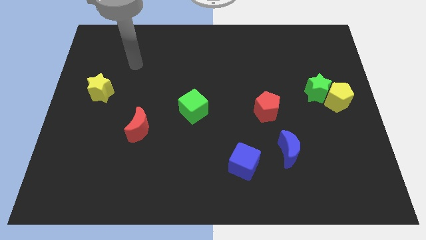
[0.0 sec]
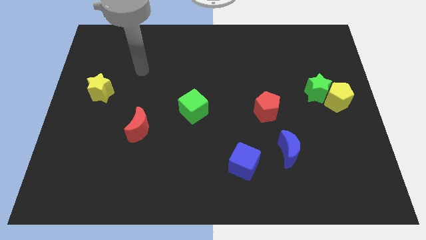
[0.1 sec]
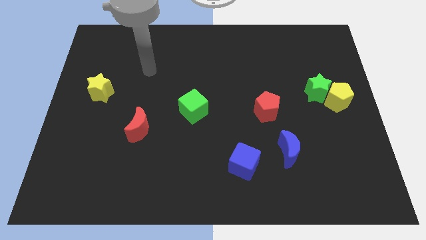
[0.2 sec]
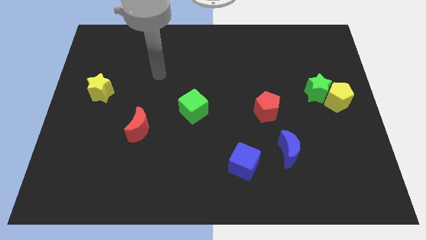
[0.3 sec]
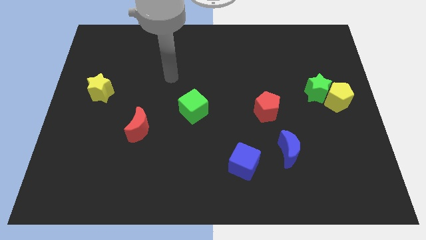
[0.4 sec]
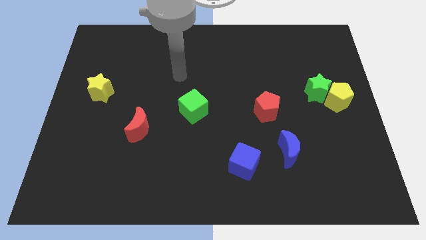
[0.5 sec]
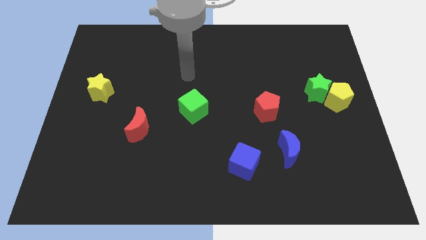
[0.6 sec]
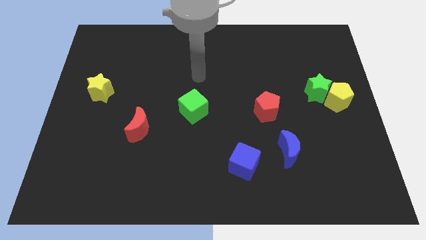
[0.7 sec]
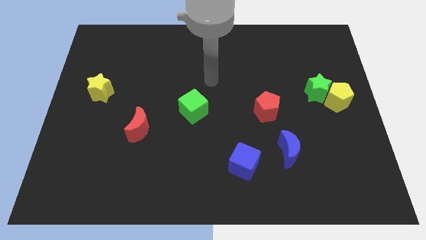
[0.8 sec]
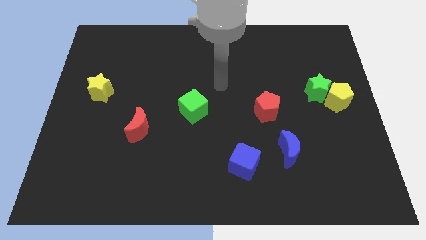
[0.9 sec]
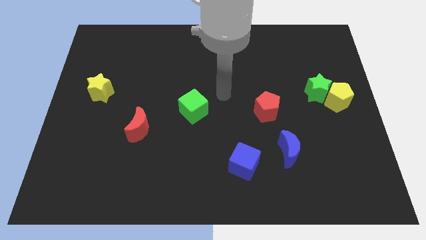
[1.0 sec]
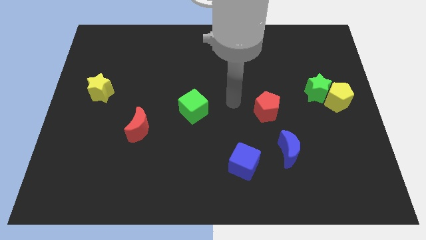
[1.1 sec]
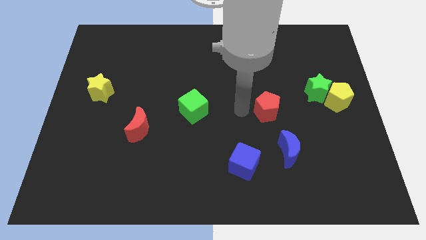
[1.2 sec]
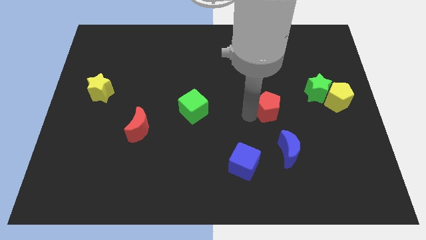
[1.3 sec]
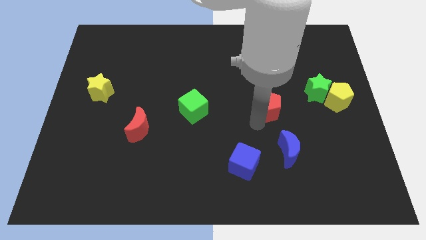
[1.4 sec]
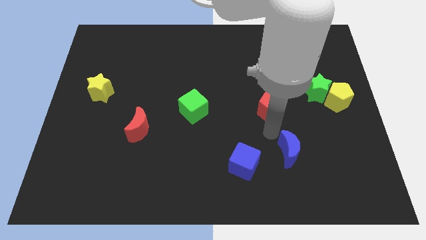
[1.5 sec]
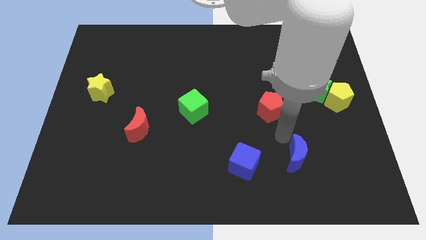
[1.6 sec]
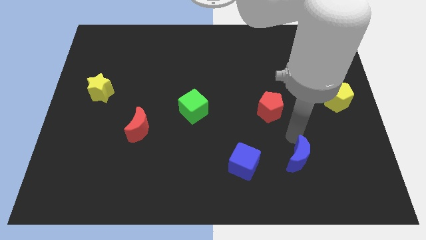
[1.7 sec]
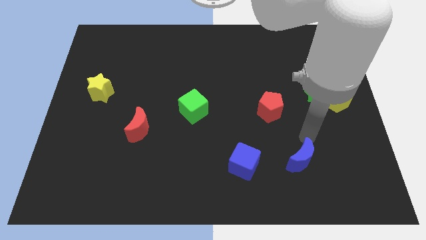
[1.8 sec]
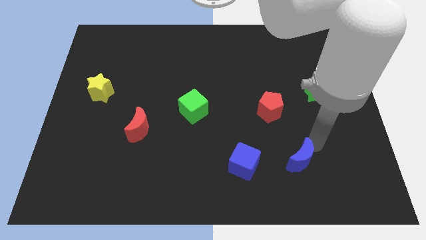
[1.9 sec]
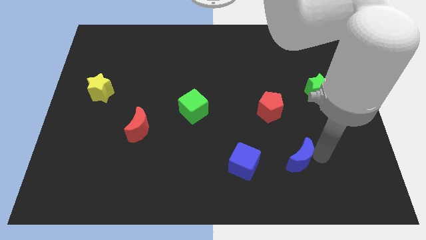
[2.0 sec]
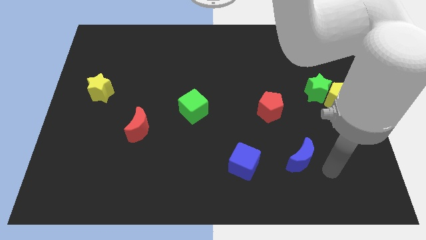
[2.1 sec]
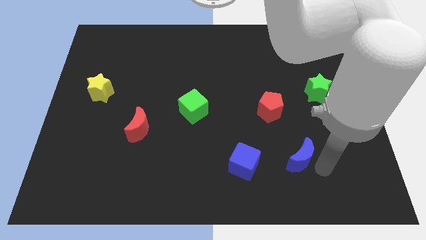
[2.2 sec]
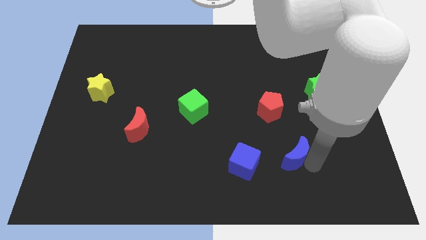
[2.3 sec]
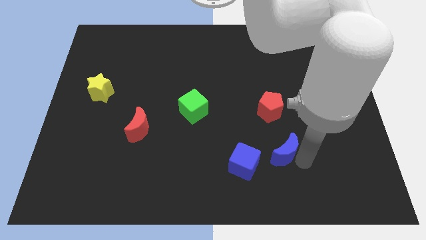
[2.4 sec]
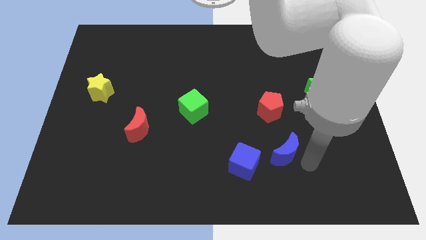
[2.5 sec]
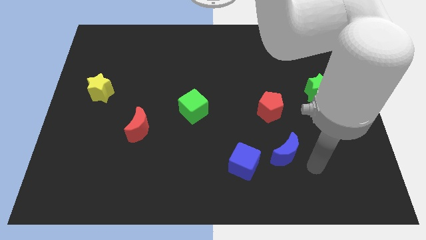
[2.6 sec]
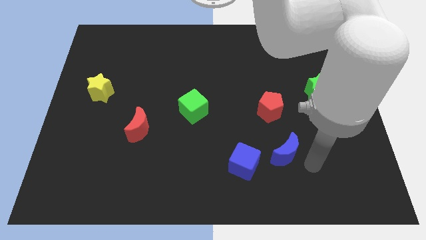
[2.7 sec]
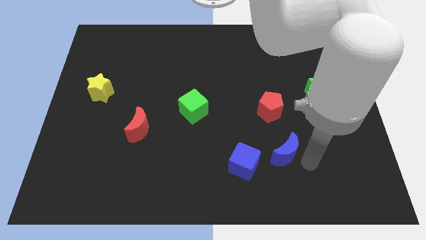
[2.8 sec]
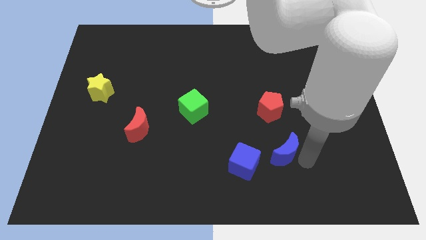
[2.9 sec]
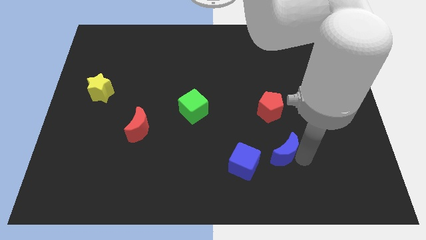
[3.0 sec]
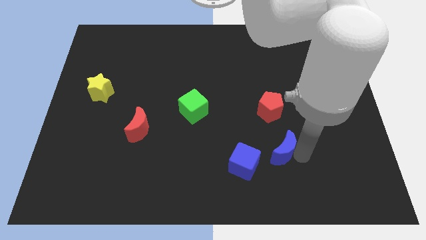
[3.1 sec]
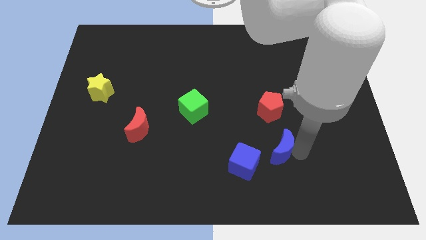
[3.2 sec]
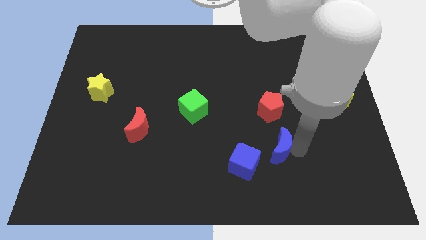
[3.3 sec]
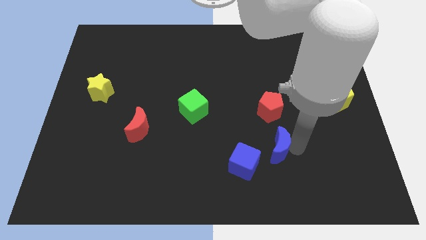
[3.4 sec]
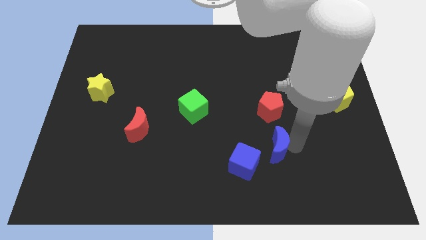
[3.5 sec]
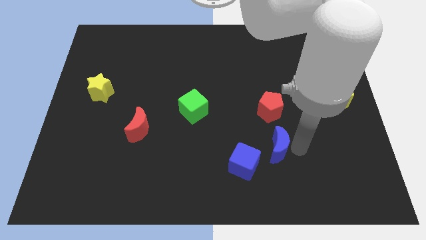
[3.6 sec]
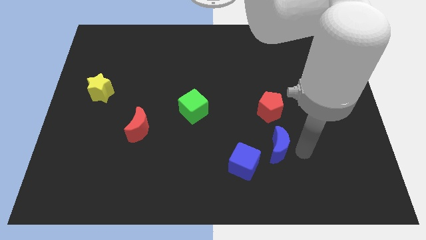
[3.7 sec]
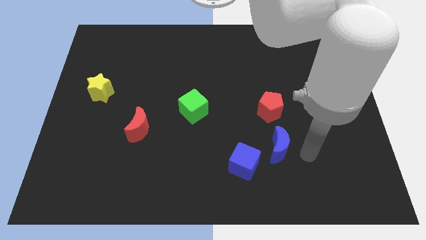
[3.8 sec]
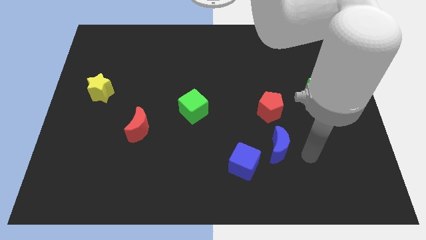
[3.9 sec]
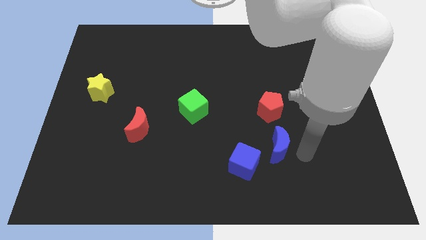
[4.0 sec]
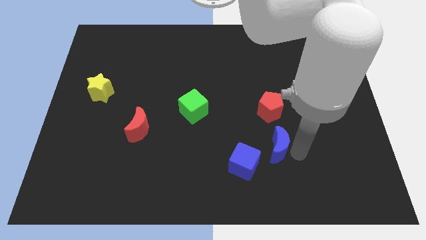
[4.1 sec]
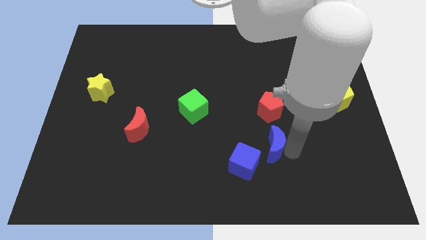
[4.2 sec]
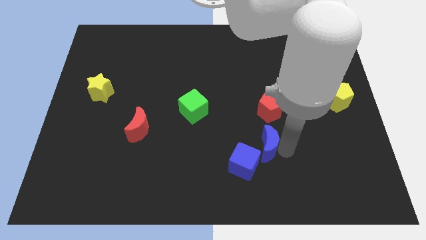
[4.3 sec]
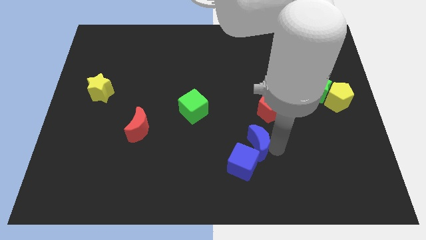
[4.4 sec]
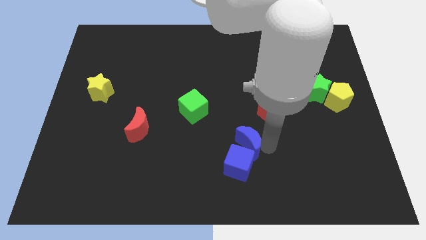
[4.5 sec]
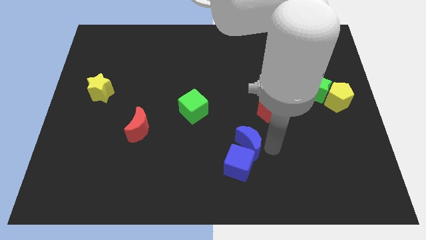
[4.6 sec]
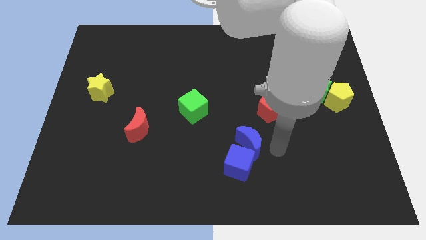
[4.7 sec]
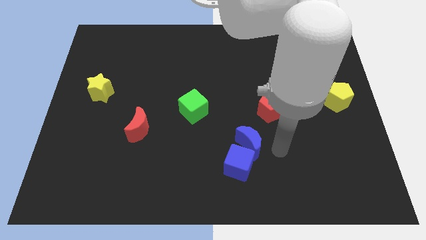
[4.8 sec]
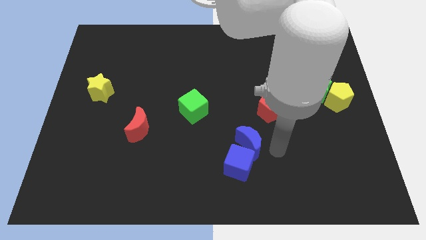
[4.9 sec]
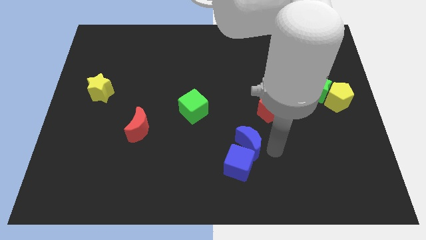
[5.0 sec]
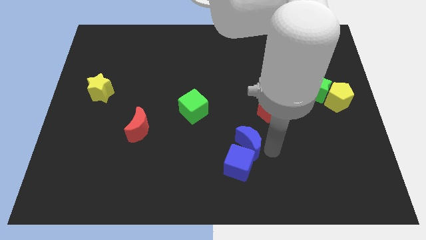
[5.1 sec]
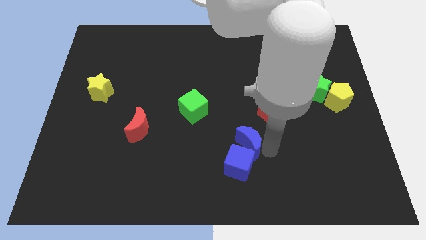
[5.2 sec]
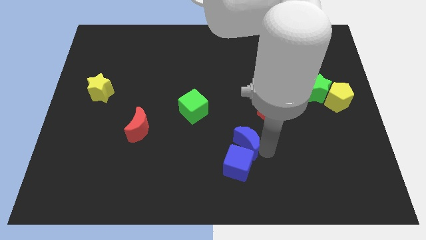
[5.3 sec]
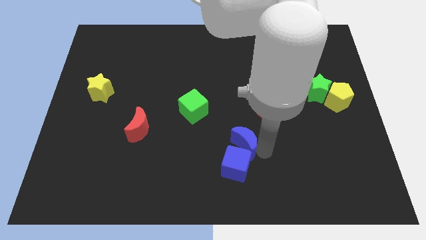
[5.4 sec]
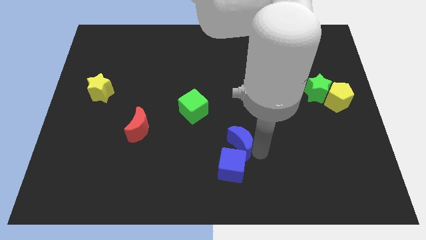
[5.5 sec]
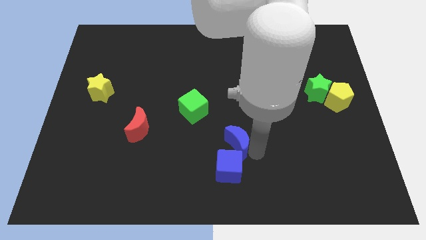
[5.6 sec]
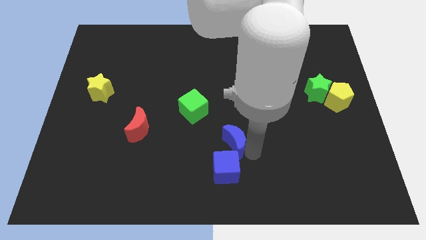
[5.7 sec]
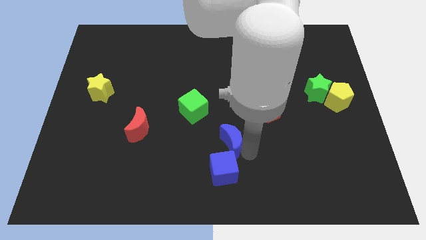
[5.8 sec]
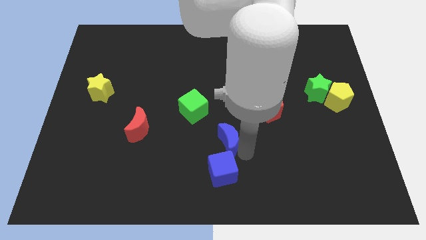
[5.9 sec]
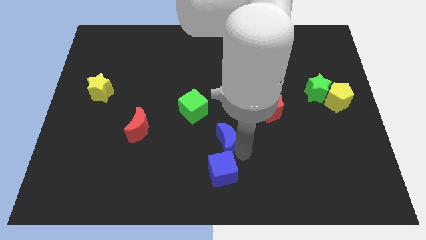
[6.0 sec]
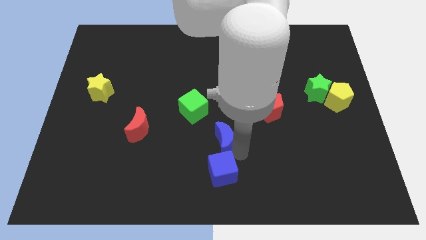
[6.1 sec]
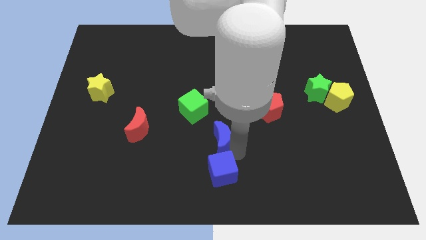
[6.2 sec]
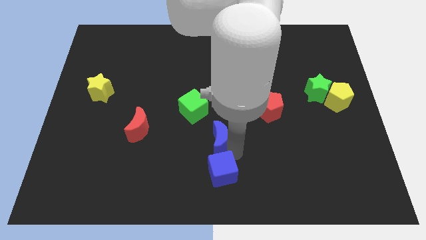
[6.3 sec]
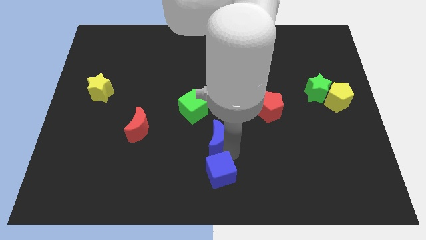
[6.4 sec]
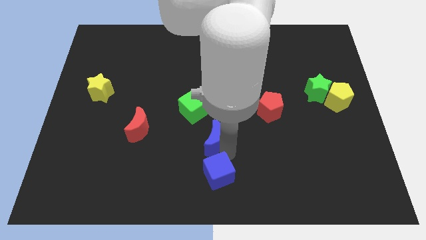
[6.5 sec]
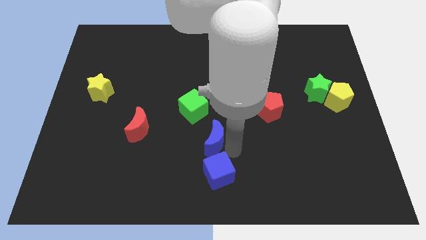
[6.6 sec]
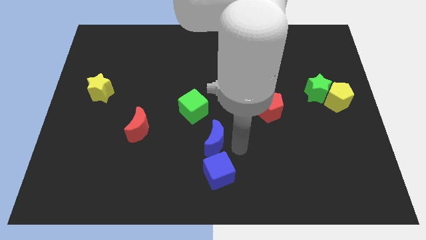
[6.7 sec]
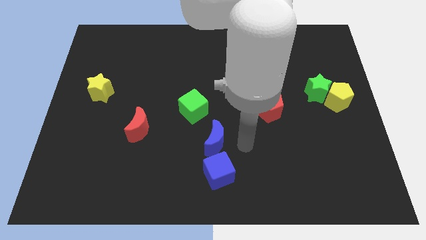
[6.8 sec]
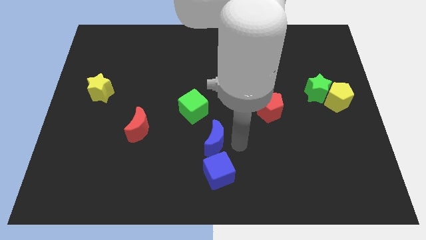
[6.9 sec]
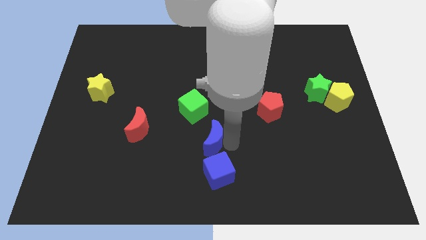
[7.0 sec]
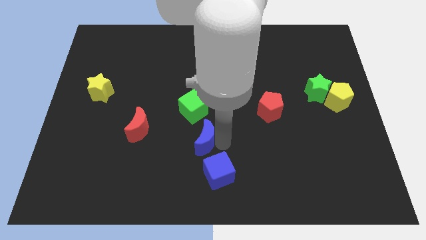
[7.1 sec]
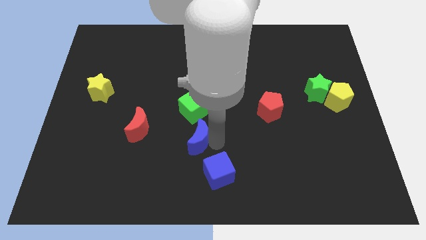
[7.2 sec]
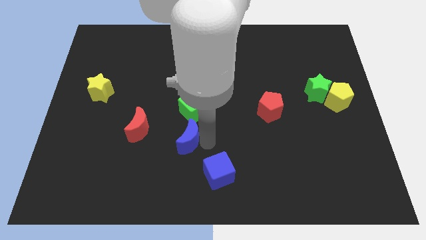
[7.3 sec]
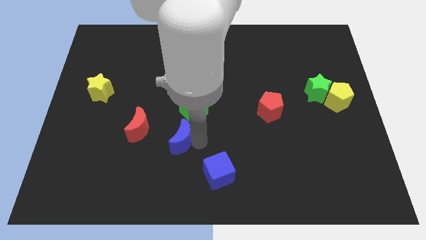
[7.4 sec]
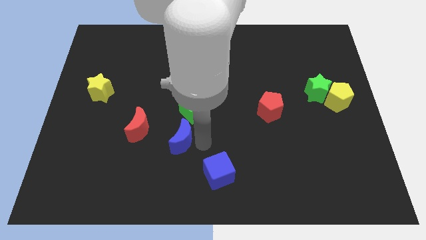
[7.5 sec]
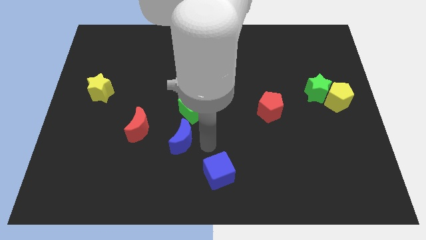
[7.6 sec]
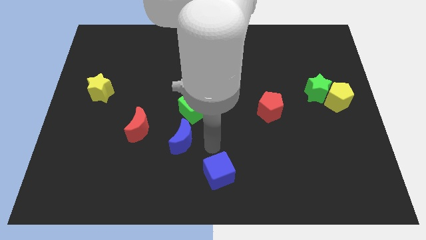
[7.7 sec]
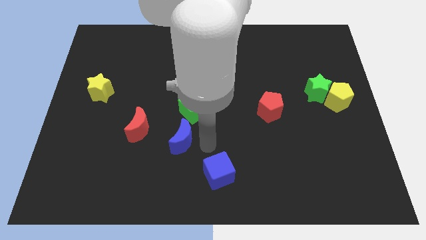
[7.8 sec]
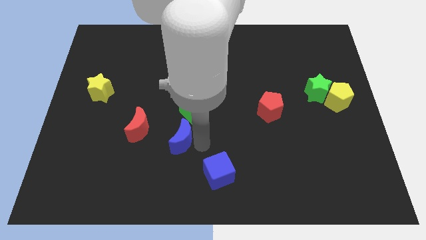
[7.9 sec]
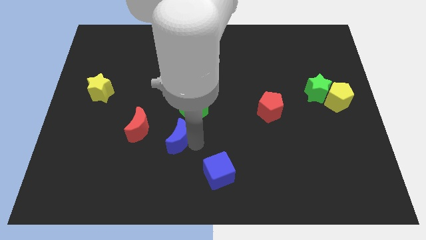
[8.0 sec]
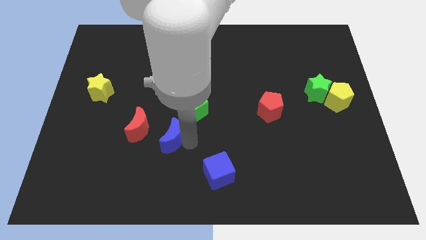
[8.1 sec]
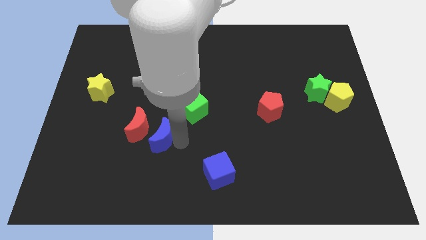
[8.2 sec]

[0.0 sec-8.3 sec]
push the blue moon close to the red moon
